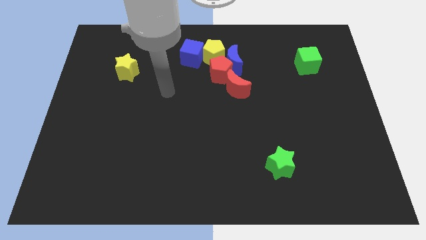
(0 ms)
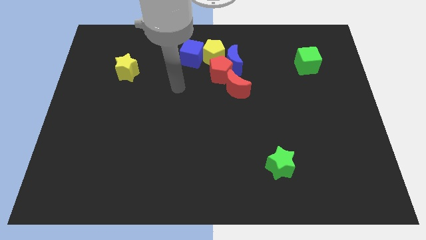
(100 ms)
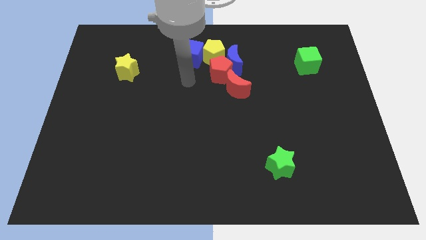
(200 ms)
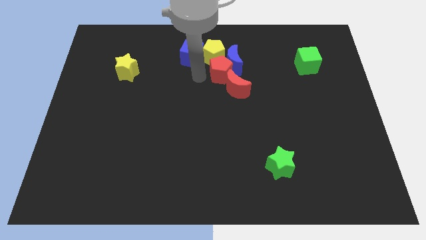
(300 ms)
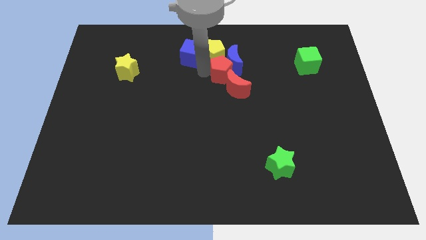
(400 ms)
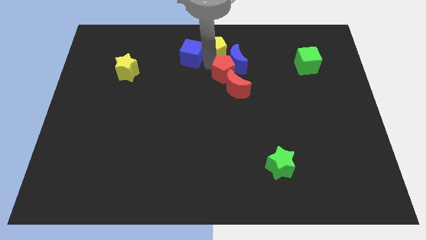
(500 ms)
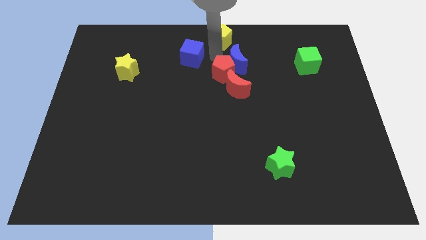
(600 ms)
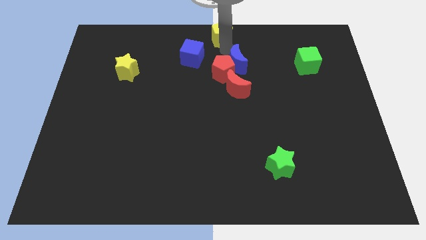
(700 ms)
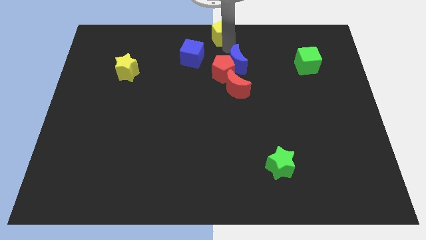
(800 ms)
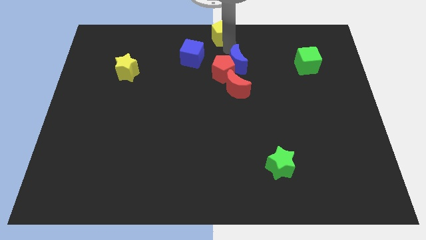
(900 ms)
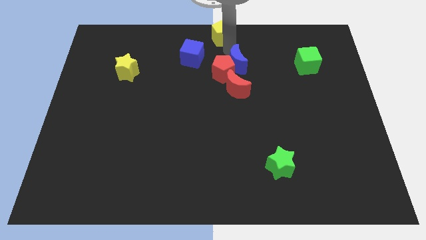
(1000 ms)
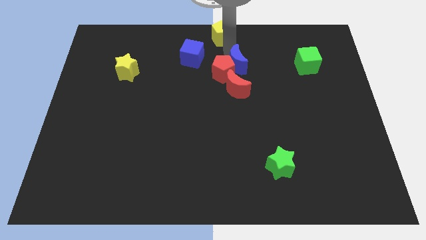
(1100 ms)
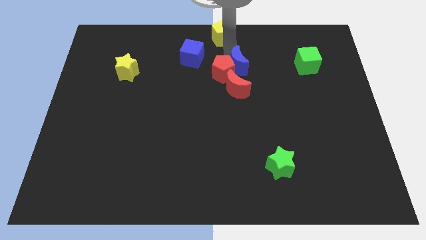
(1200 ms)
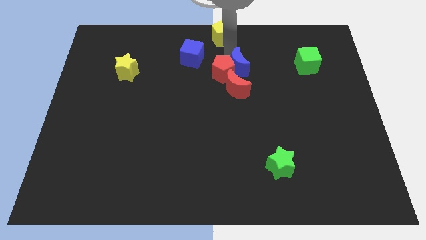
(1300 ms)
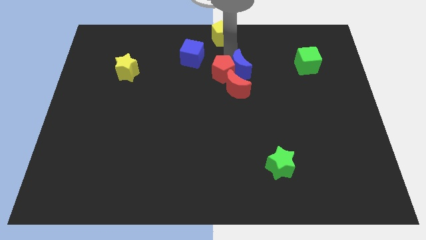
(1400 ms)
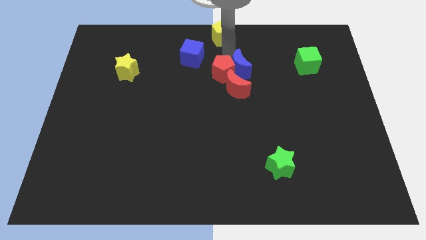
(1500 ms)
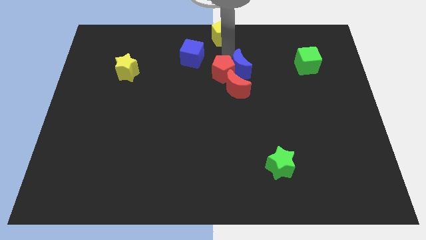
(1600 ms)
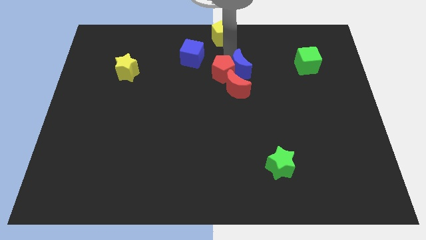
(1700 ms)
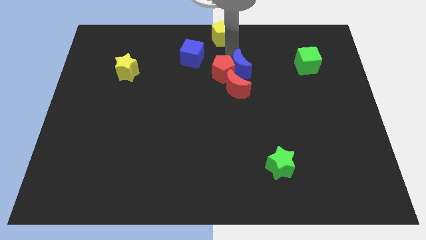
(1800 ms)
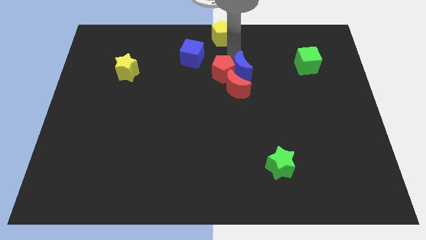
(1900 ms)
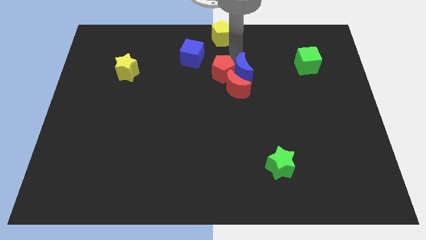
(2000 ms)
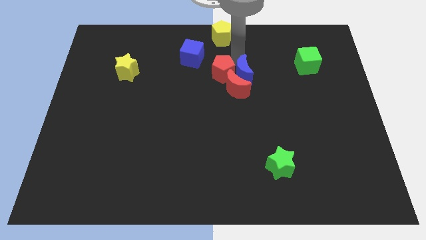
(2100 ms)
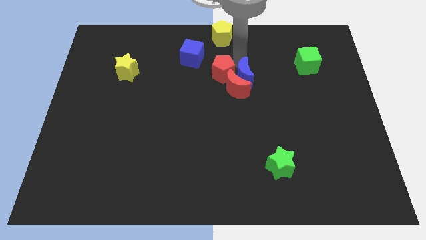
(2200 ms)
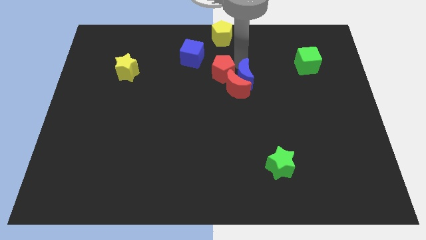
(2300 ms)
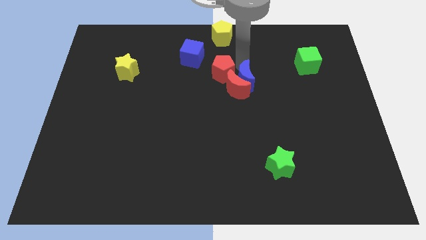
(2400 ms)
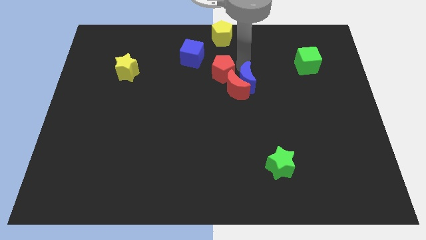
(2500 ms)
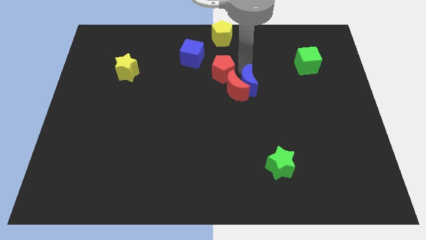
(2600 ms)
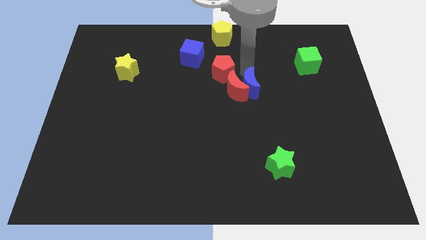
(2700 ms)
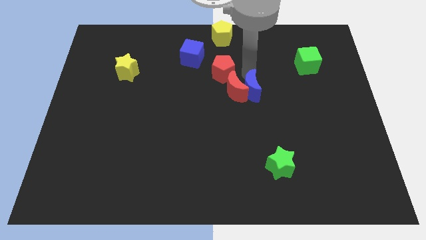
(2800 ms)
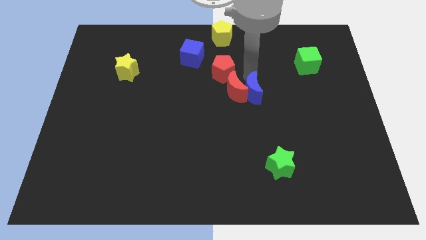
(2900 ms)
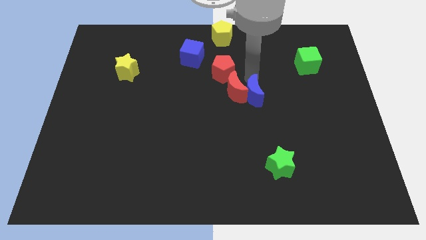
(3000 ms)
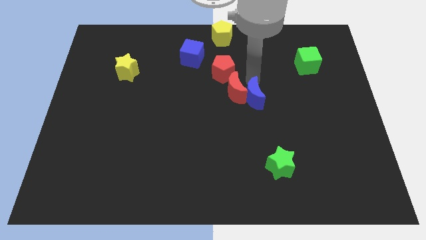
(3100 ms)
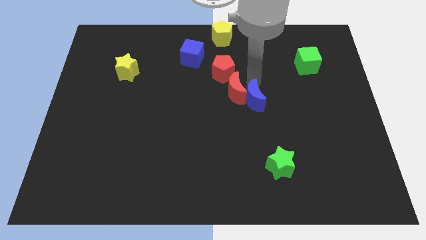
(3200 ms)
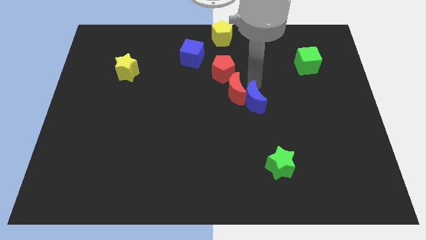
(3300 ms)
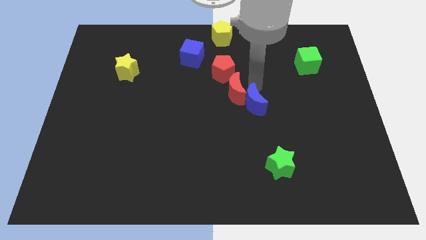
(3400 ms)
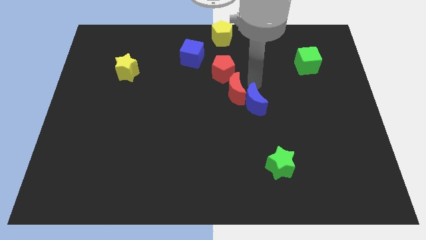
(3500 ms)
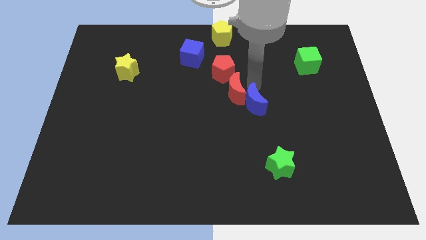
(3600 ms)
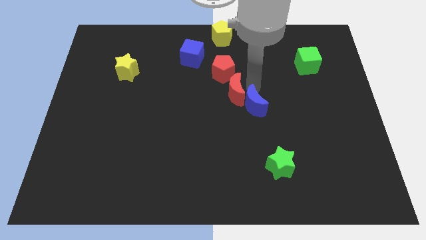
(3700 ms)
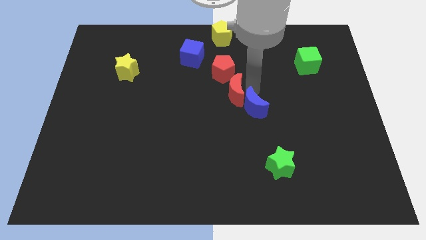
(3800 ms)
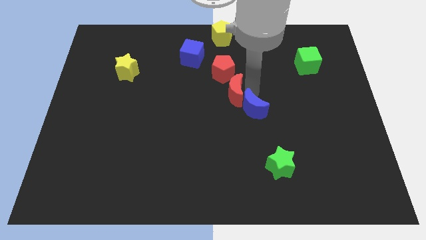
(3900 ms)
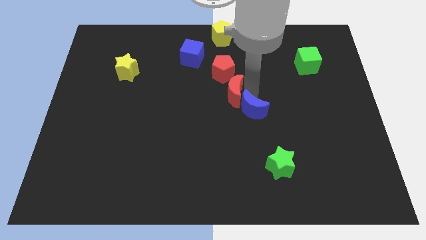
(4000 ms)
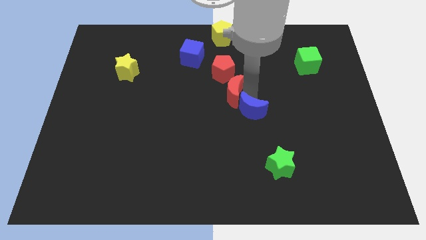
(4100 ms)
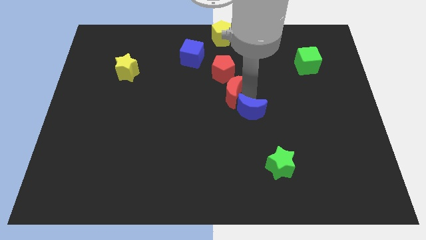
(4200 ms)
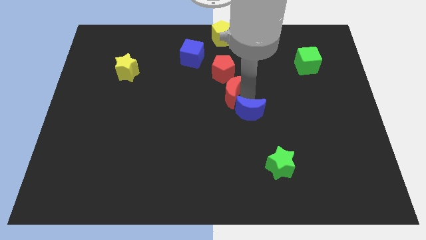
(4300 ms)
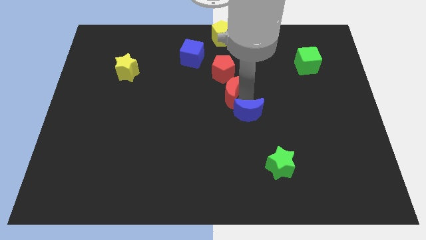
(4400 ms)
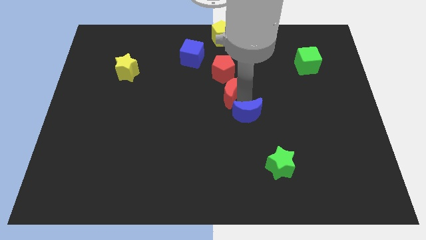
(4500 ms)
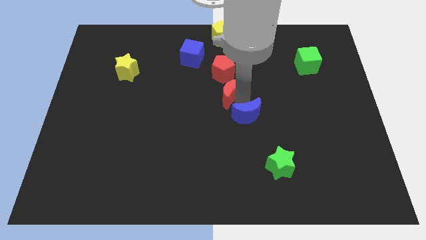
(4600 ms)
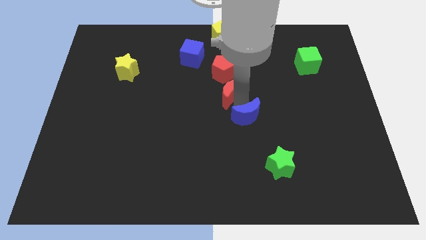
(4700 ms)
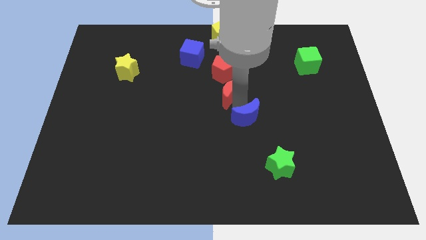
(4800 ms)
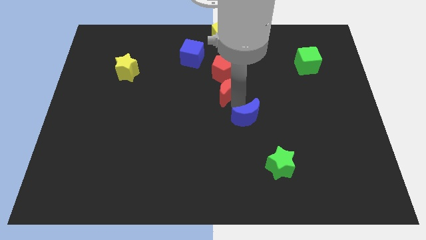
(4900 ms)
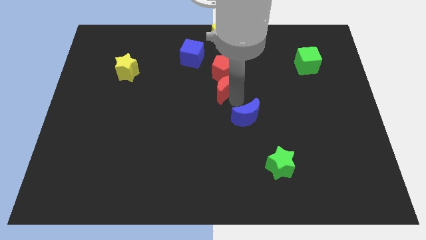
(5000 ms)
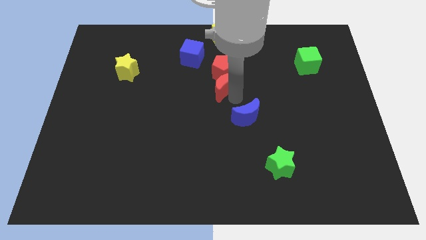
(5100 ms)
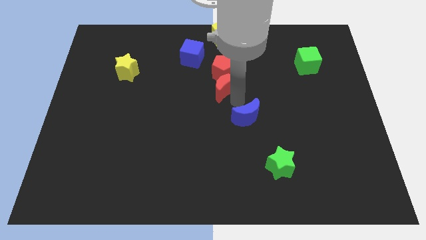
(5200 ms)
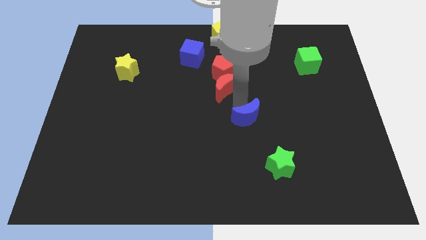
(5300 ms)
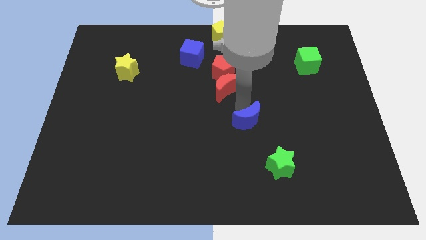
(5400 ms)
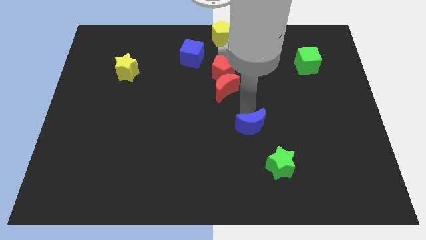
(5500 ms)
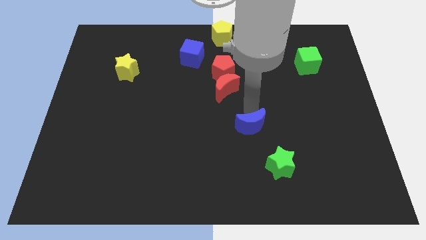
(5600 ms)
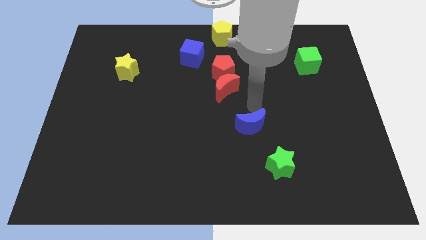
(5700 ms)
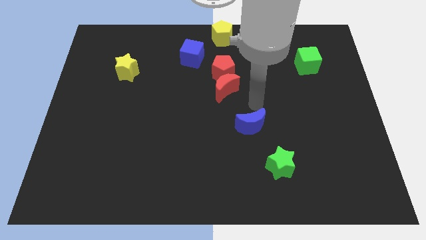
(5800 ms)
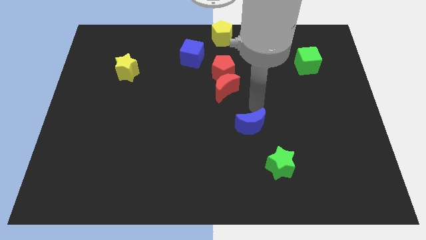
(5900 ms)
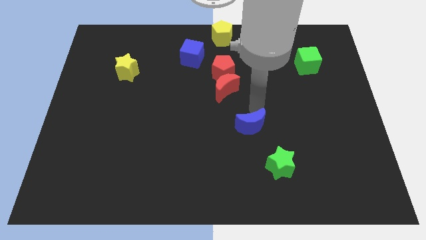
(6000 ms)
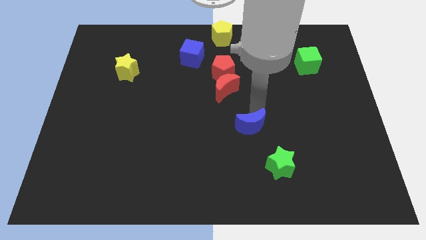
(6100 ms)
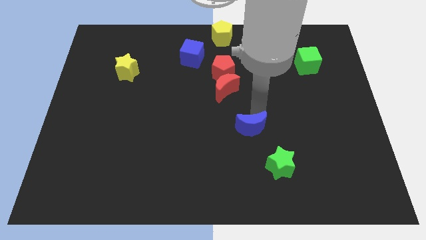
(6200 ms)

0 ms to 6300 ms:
slide the blue moon down

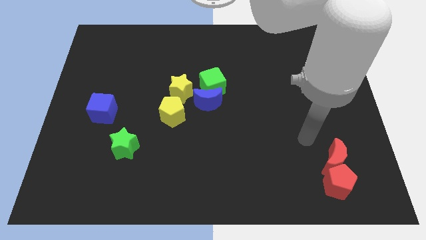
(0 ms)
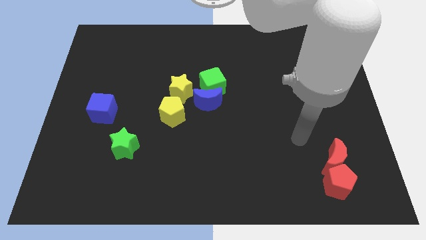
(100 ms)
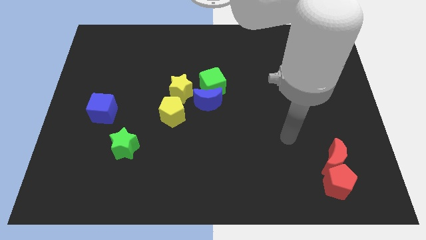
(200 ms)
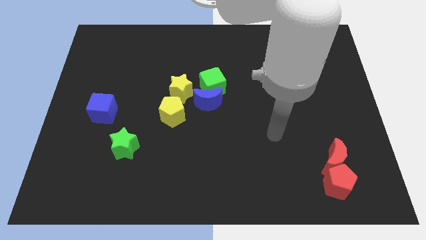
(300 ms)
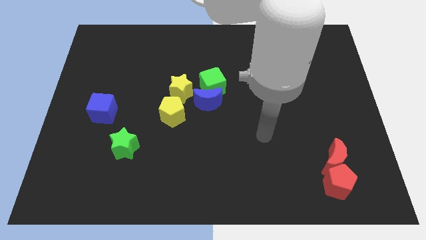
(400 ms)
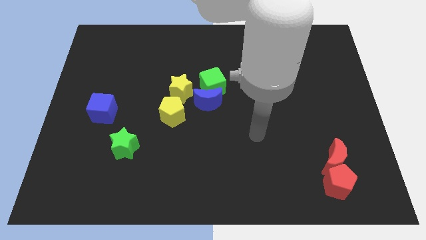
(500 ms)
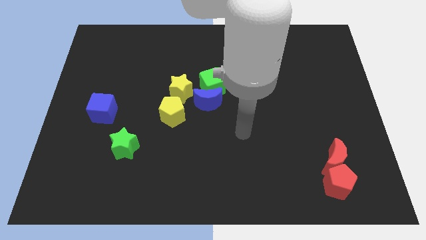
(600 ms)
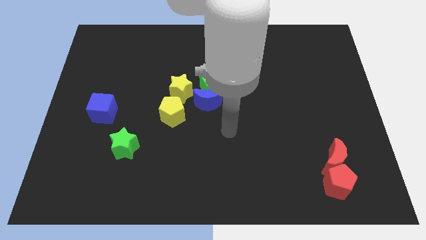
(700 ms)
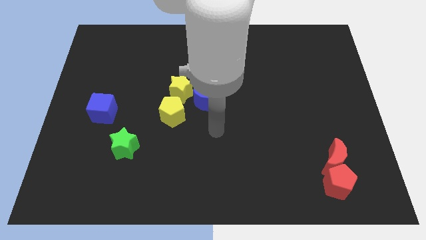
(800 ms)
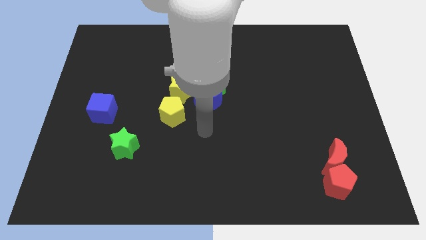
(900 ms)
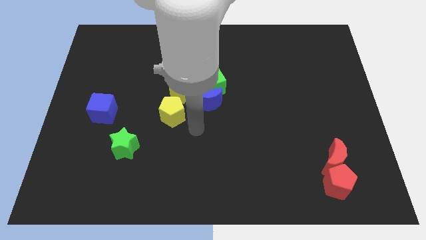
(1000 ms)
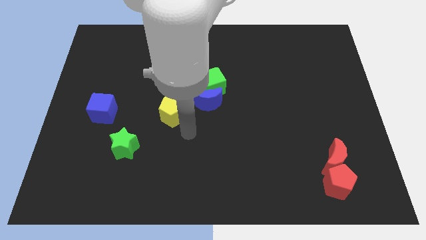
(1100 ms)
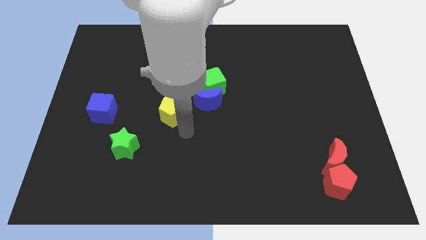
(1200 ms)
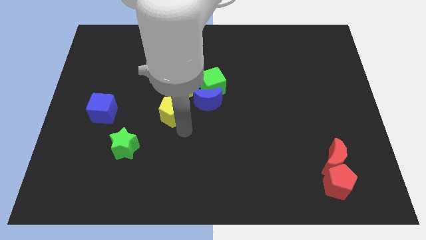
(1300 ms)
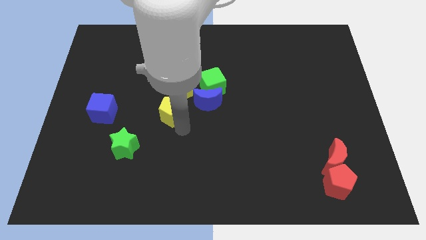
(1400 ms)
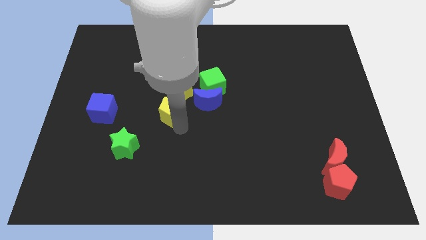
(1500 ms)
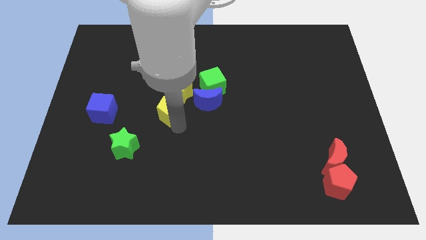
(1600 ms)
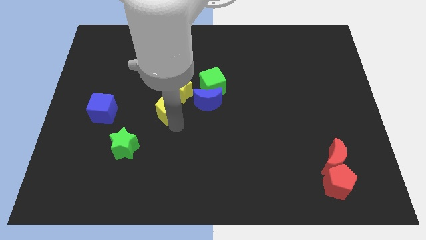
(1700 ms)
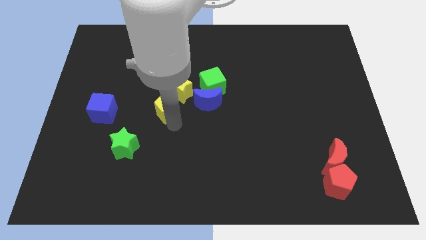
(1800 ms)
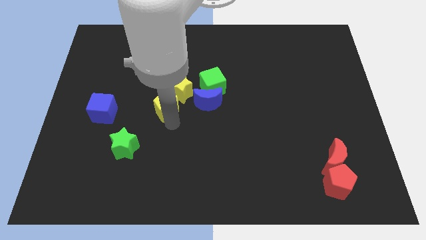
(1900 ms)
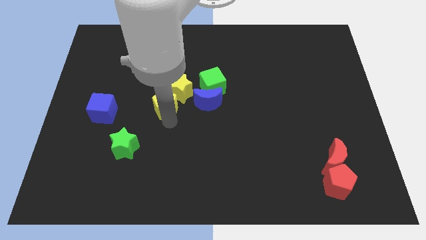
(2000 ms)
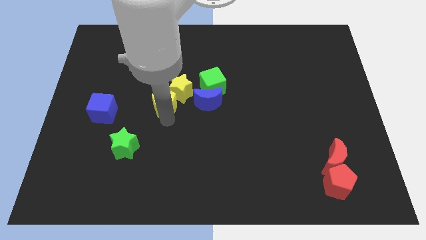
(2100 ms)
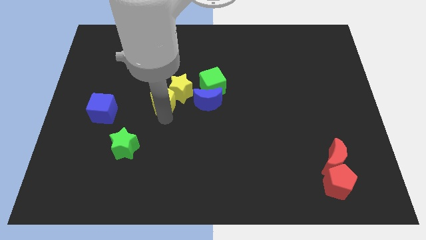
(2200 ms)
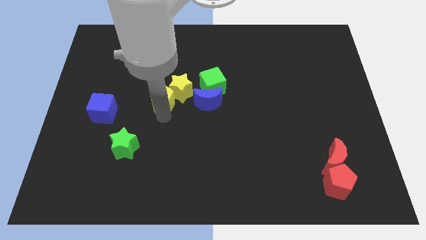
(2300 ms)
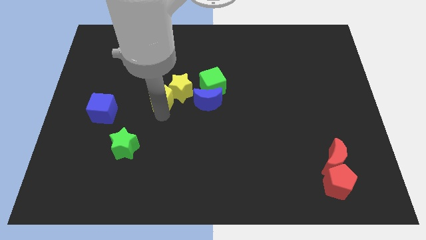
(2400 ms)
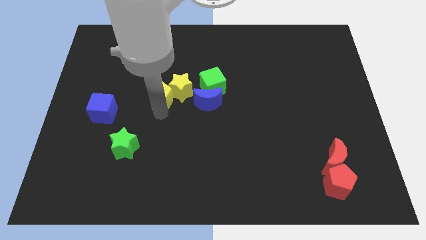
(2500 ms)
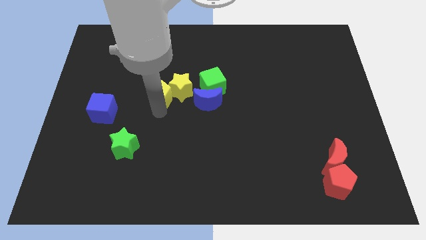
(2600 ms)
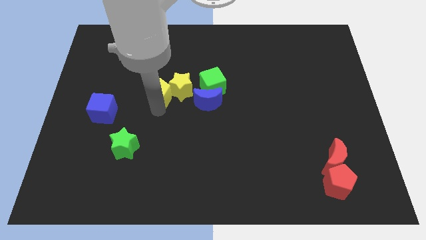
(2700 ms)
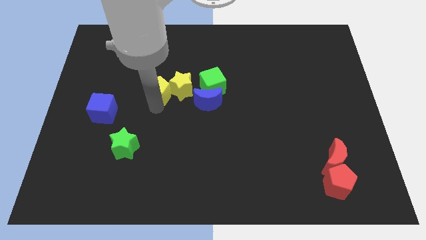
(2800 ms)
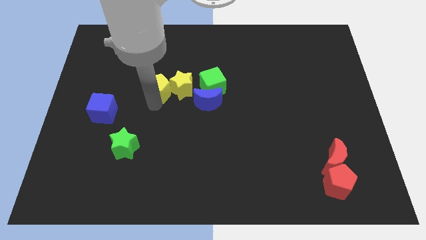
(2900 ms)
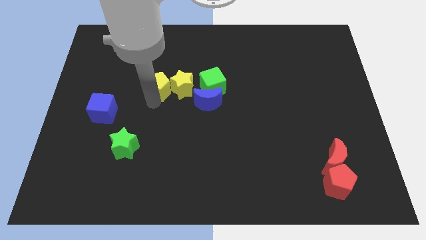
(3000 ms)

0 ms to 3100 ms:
move the yellow pentagon a little upwards
